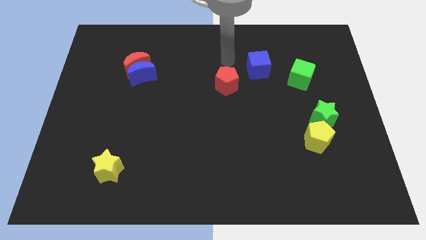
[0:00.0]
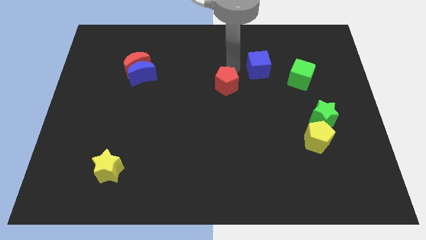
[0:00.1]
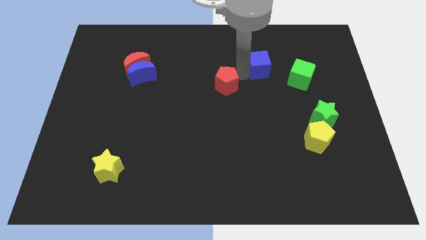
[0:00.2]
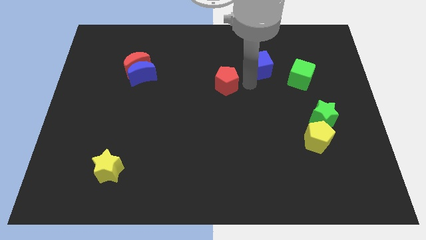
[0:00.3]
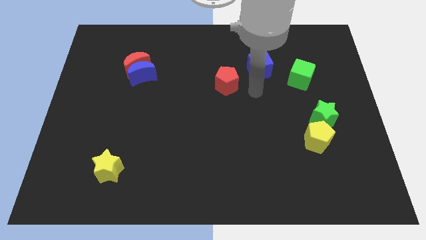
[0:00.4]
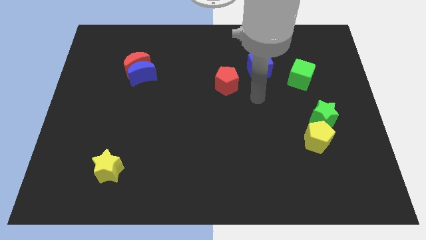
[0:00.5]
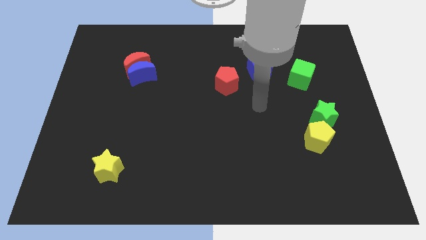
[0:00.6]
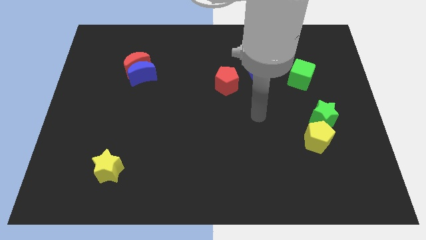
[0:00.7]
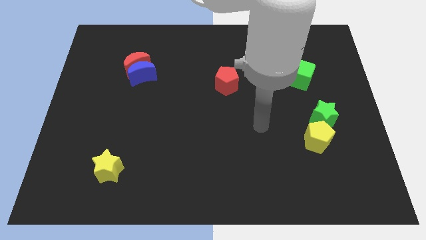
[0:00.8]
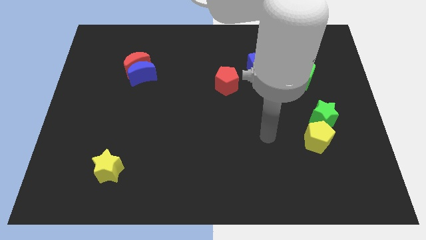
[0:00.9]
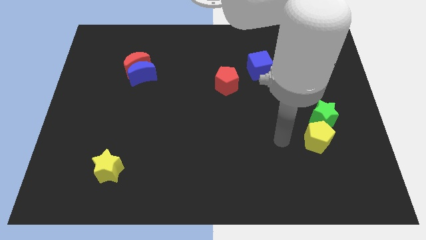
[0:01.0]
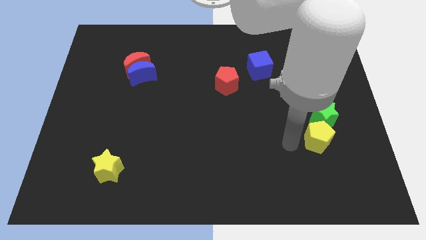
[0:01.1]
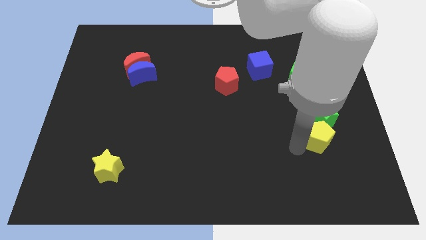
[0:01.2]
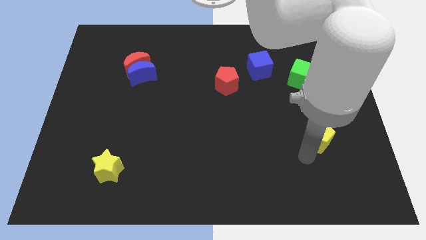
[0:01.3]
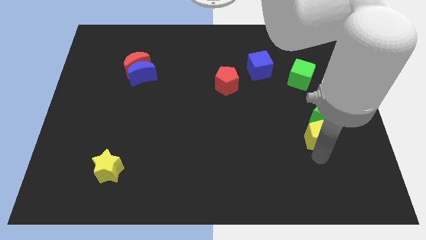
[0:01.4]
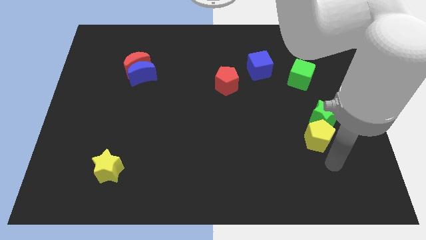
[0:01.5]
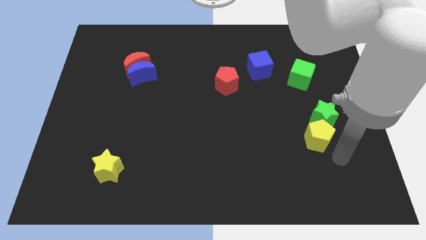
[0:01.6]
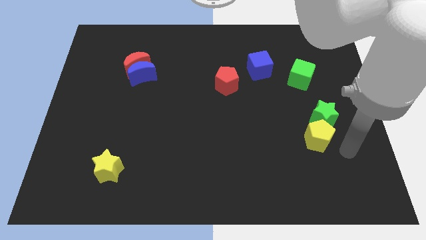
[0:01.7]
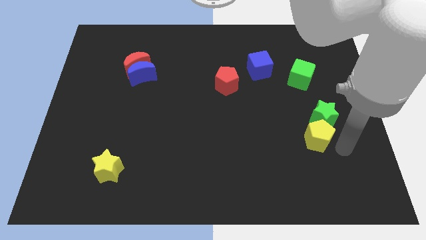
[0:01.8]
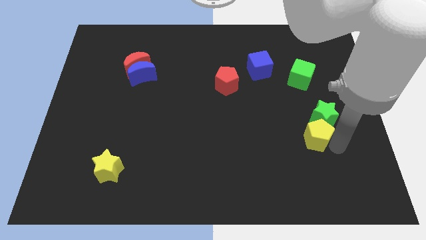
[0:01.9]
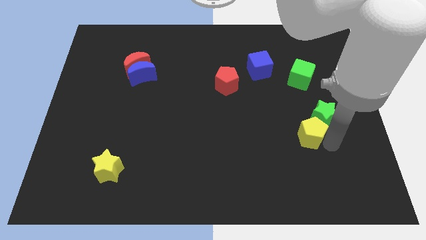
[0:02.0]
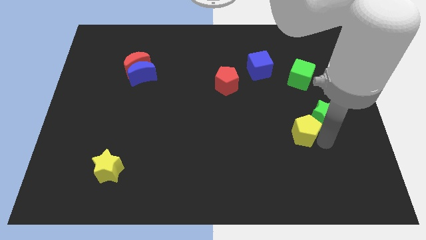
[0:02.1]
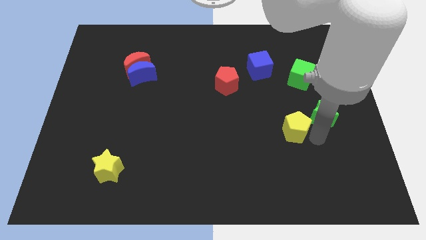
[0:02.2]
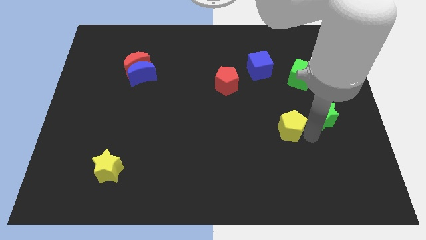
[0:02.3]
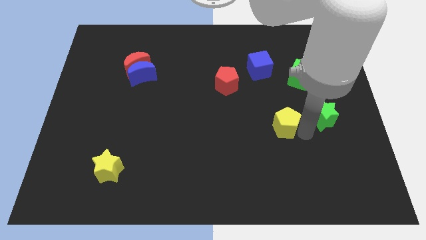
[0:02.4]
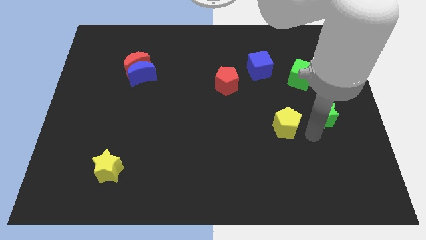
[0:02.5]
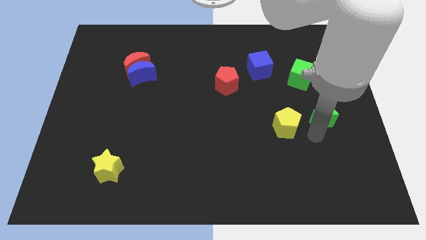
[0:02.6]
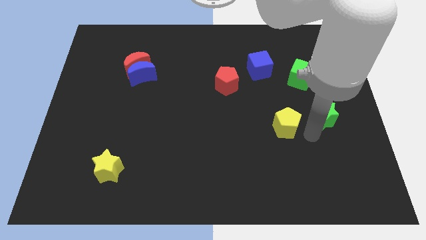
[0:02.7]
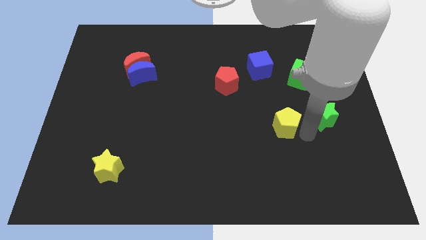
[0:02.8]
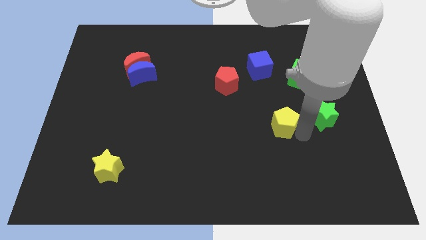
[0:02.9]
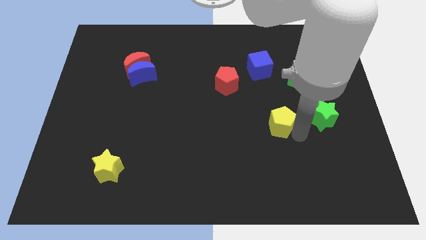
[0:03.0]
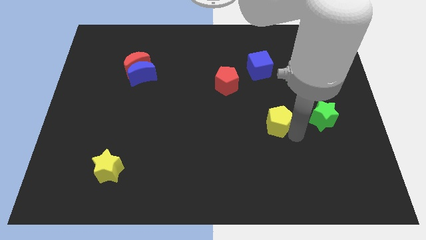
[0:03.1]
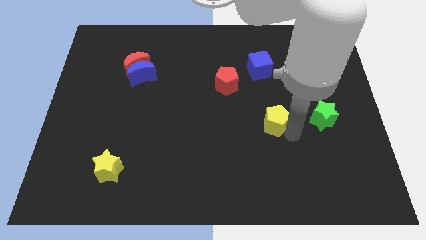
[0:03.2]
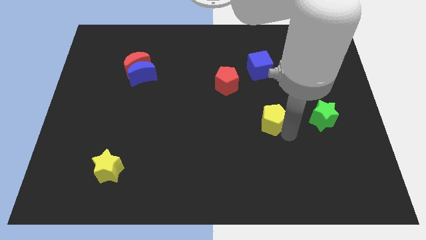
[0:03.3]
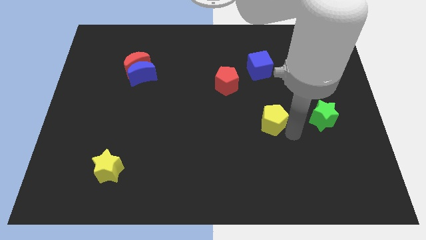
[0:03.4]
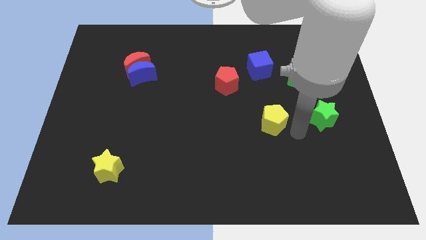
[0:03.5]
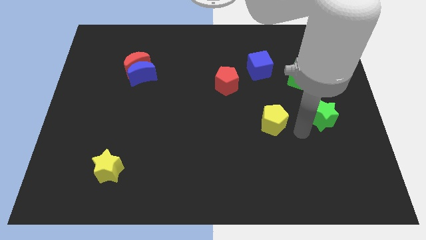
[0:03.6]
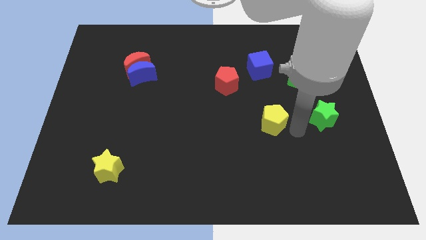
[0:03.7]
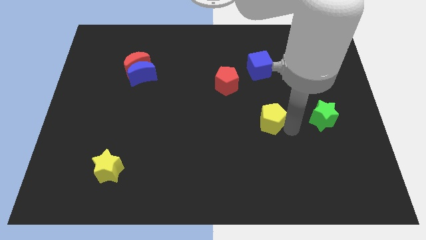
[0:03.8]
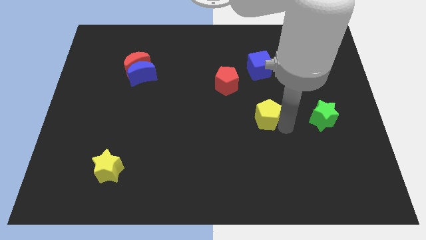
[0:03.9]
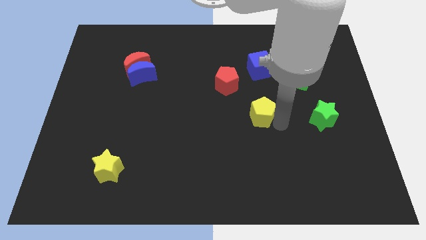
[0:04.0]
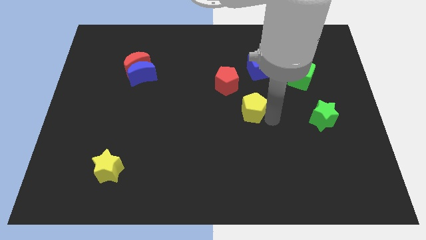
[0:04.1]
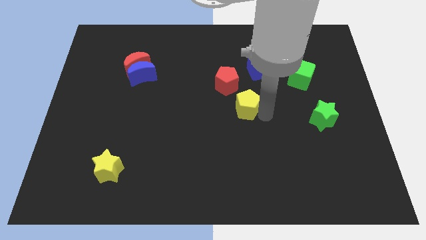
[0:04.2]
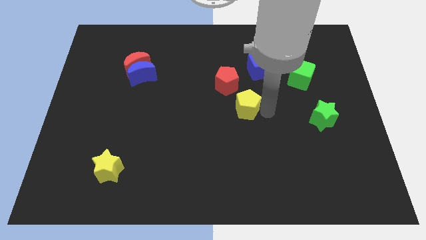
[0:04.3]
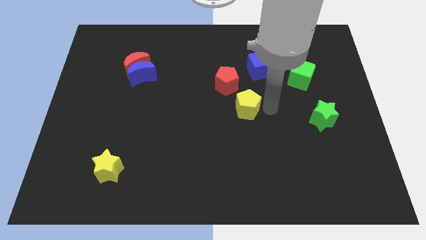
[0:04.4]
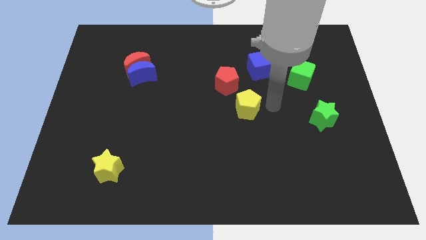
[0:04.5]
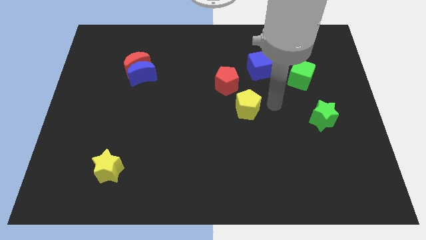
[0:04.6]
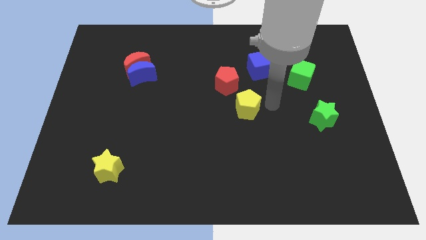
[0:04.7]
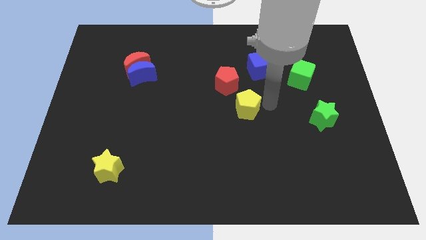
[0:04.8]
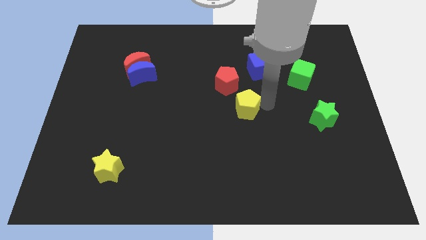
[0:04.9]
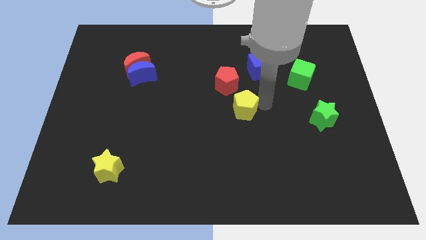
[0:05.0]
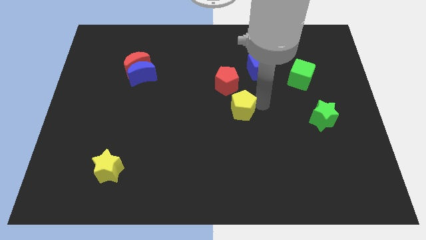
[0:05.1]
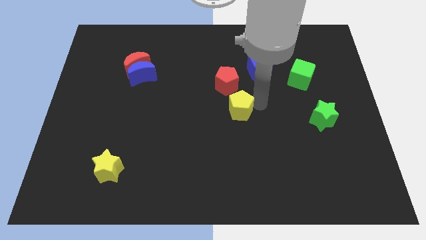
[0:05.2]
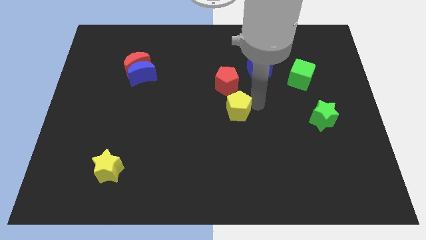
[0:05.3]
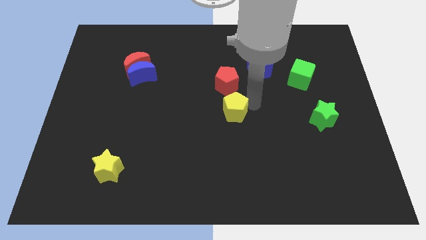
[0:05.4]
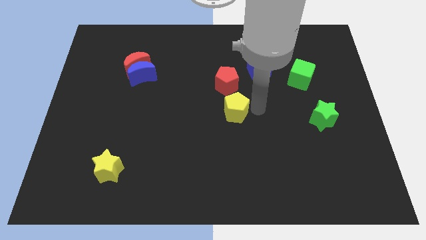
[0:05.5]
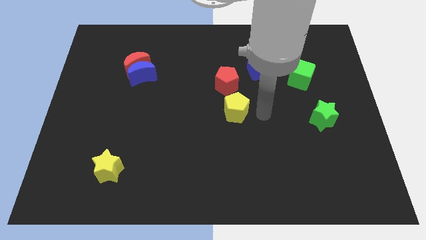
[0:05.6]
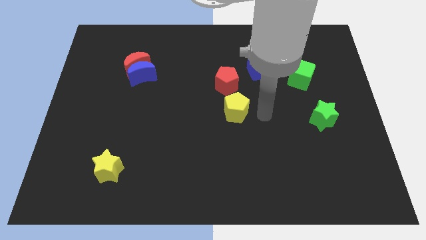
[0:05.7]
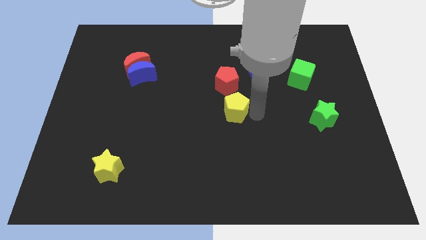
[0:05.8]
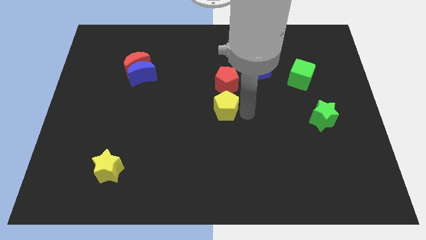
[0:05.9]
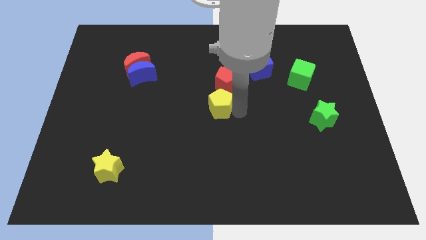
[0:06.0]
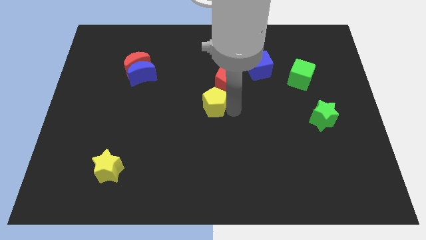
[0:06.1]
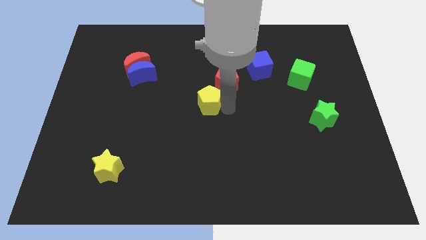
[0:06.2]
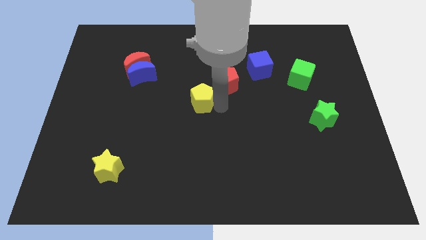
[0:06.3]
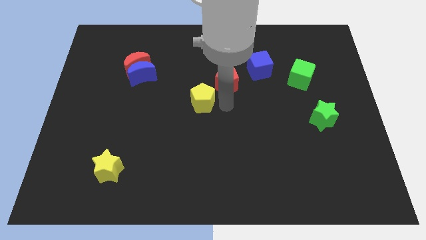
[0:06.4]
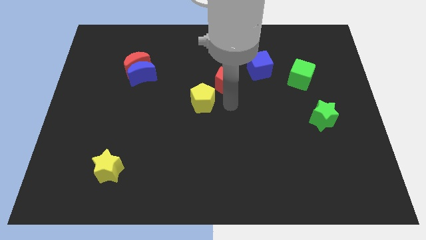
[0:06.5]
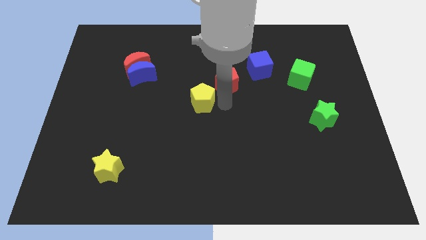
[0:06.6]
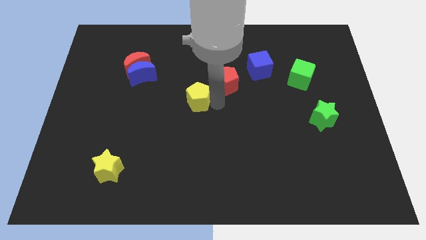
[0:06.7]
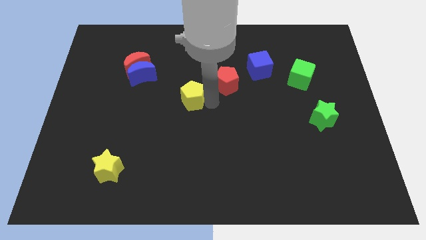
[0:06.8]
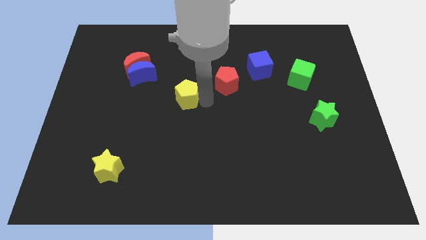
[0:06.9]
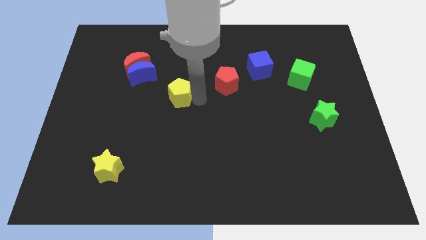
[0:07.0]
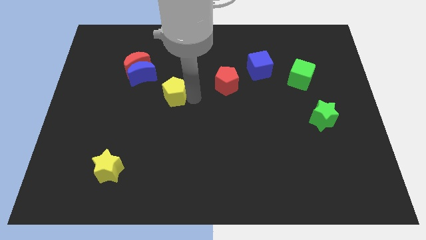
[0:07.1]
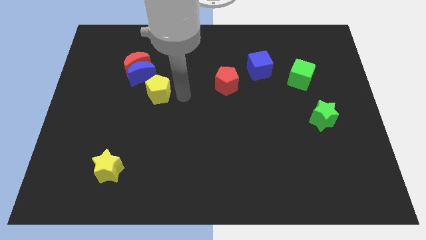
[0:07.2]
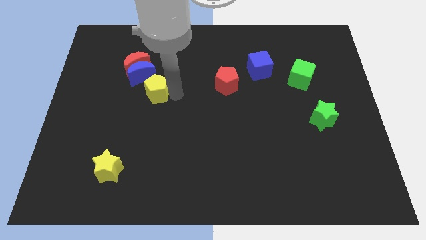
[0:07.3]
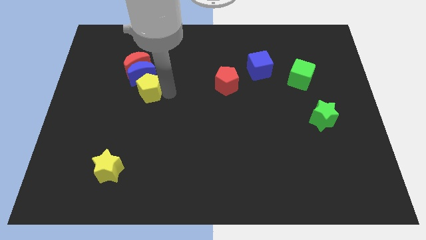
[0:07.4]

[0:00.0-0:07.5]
push the yellow pentagon to the bottom of the red moon

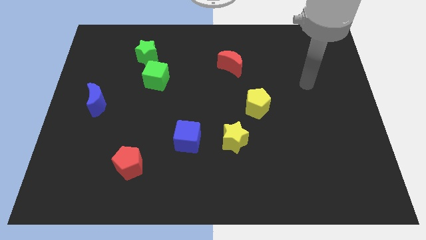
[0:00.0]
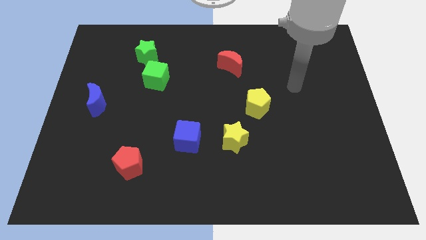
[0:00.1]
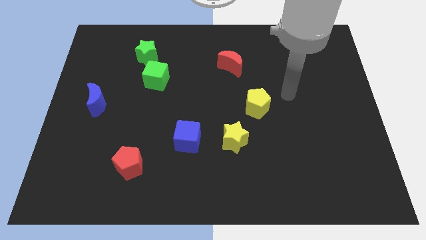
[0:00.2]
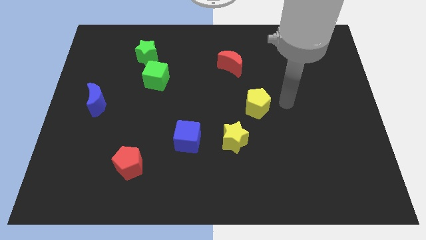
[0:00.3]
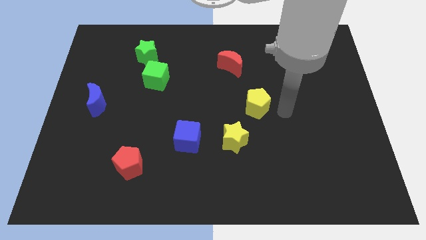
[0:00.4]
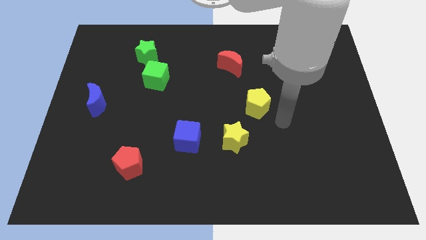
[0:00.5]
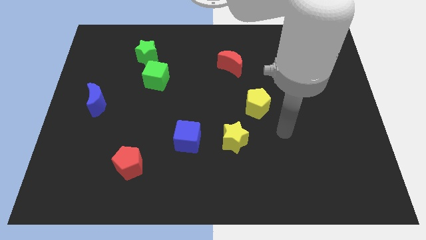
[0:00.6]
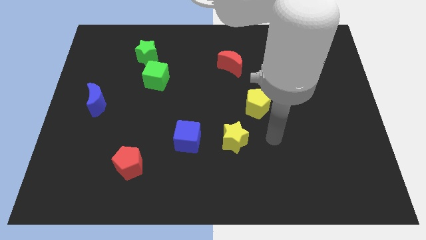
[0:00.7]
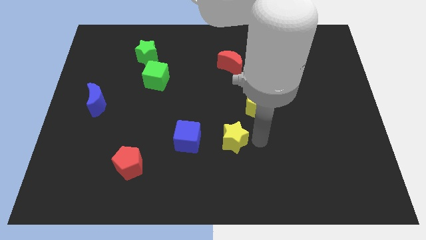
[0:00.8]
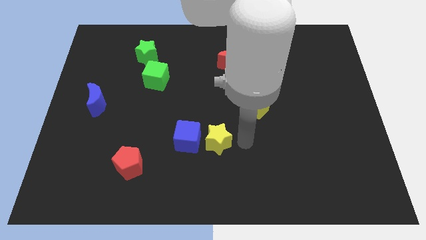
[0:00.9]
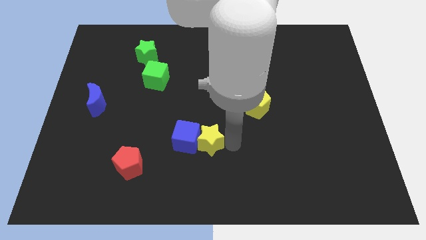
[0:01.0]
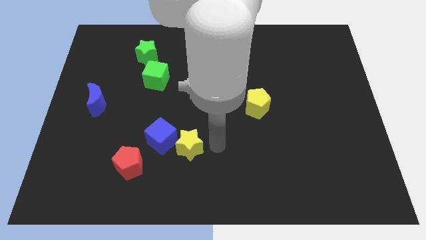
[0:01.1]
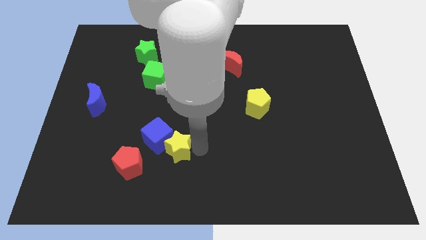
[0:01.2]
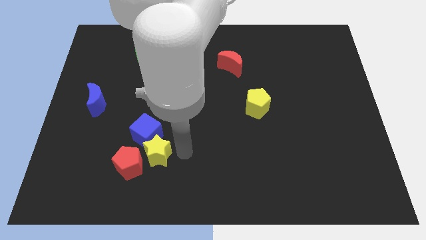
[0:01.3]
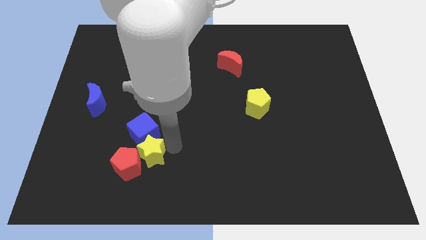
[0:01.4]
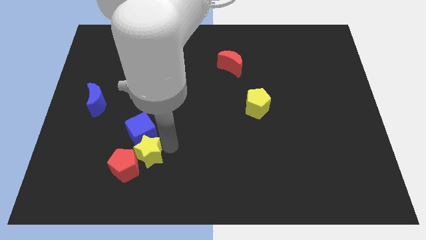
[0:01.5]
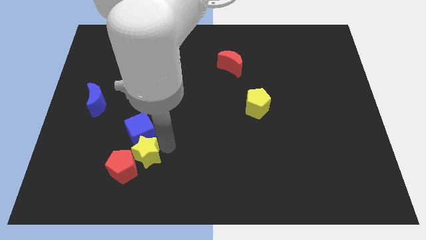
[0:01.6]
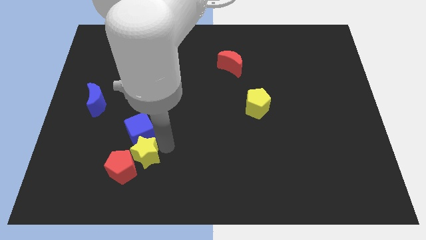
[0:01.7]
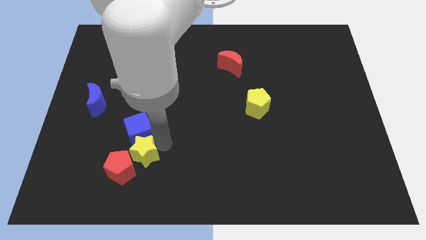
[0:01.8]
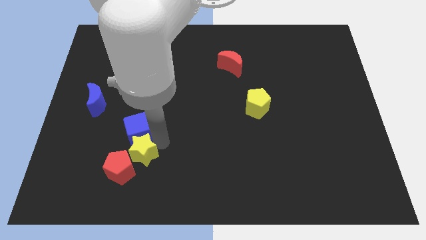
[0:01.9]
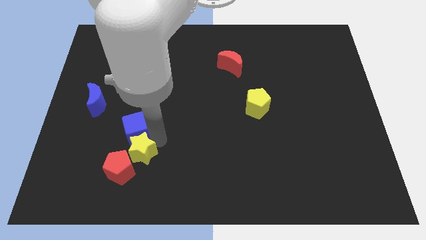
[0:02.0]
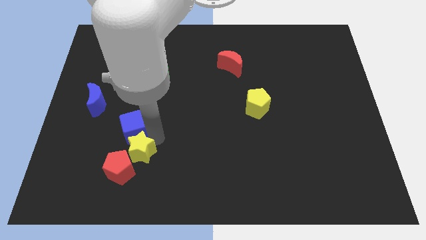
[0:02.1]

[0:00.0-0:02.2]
put the blue cube diagonally down and to the right of the blue moon
